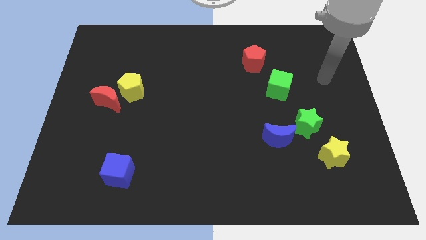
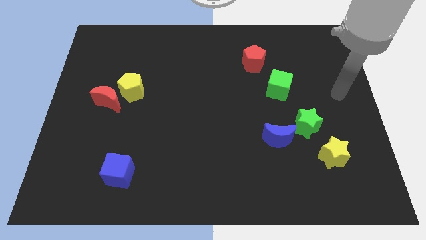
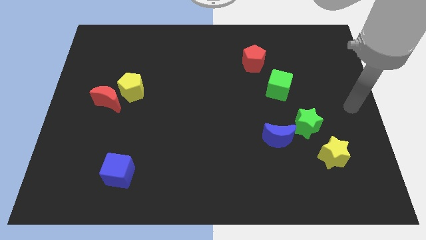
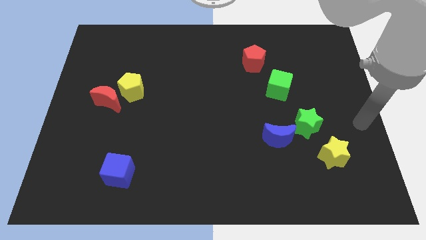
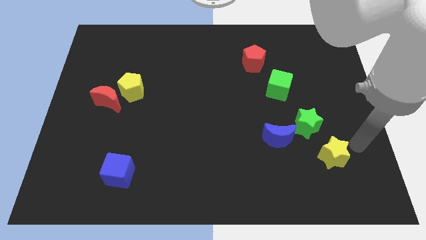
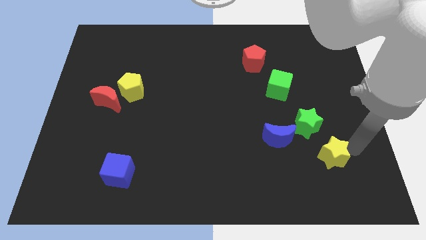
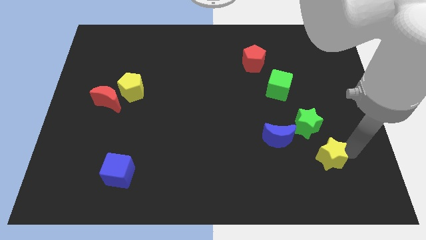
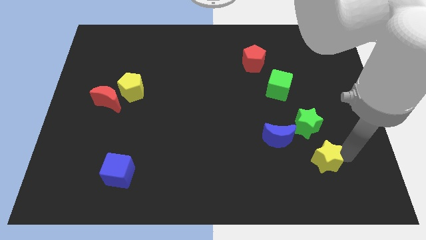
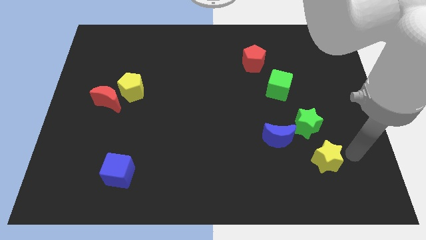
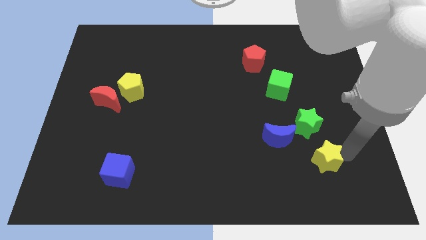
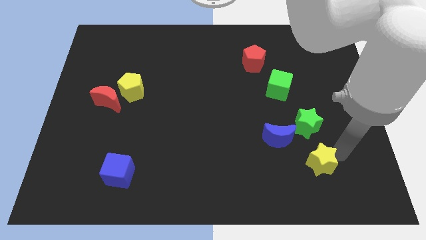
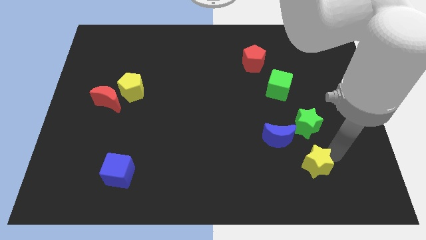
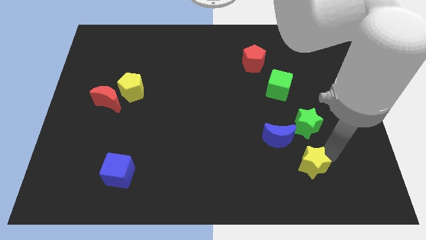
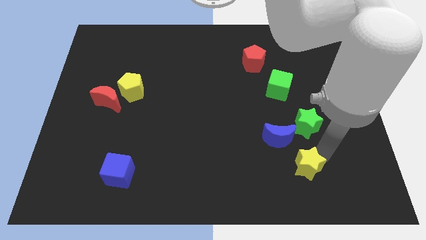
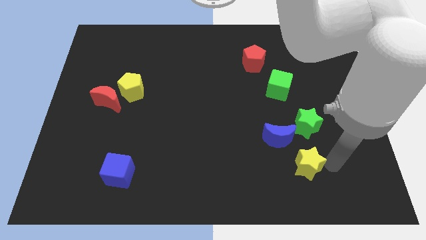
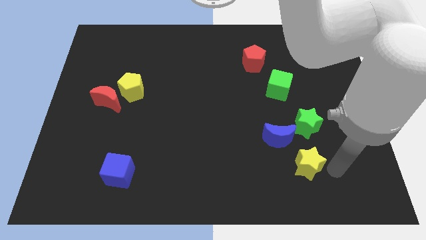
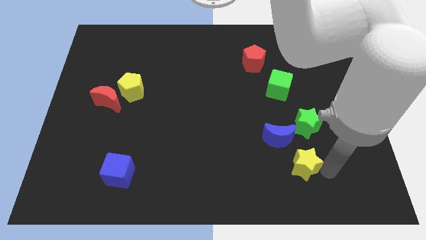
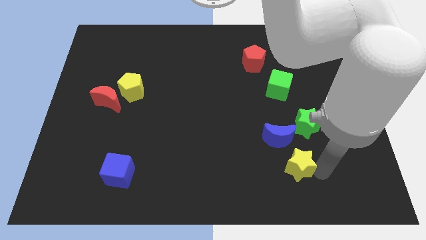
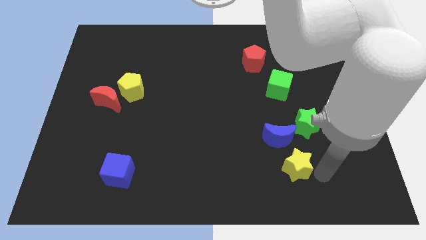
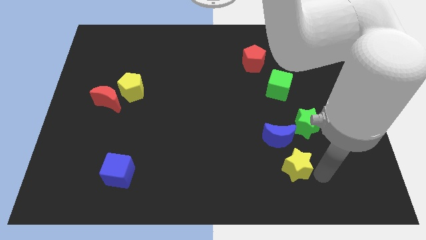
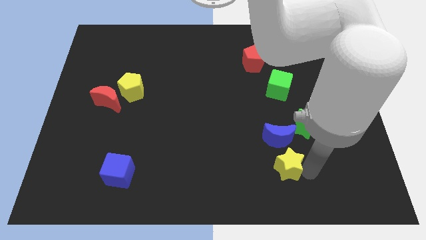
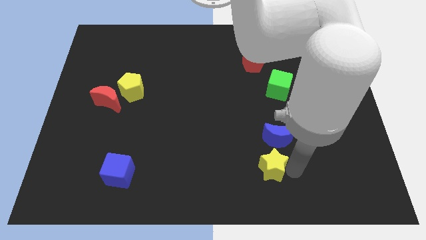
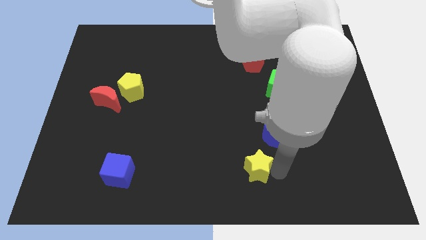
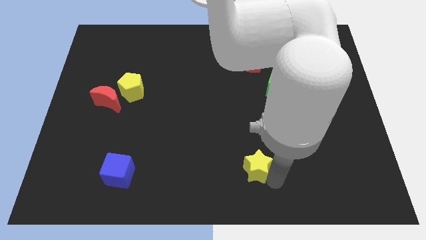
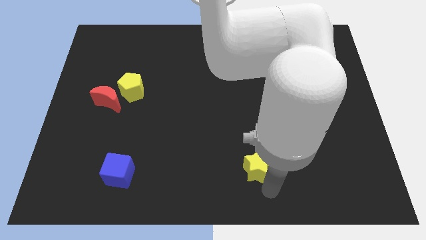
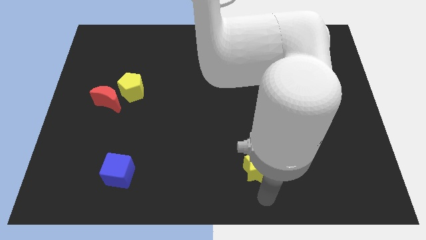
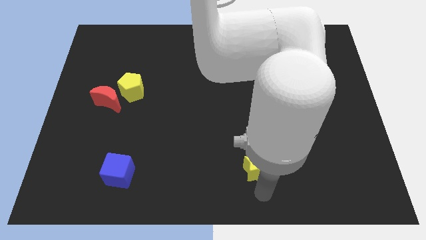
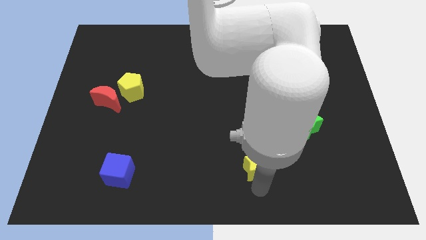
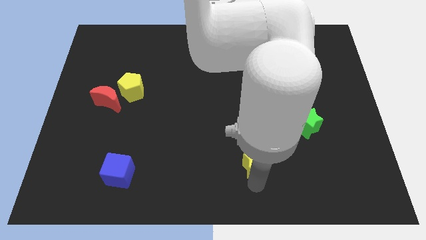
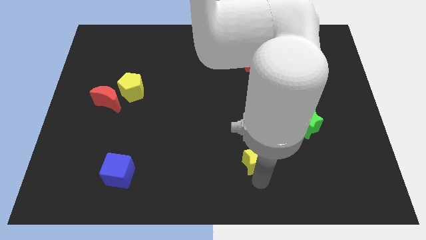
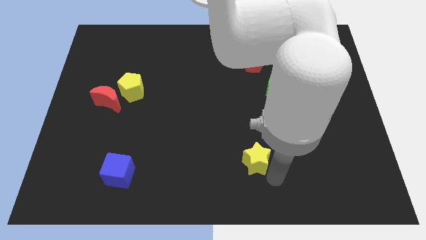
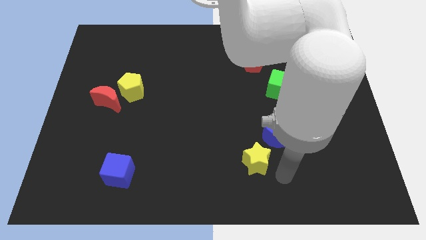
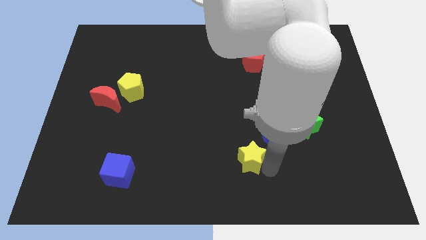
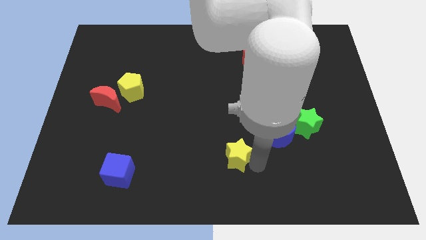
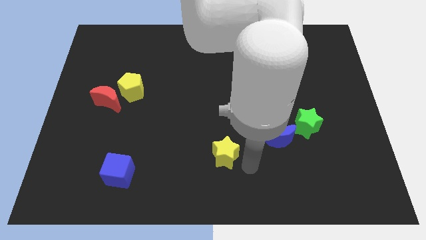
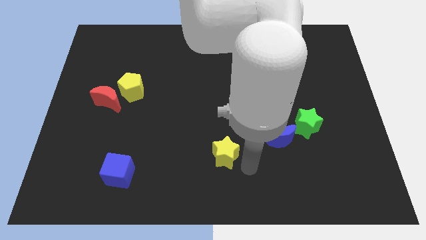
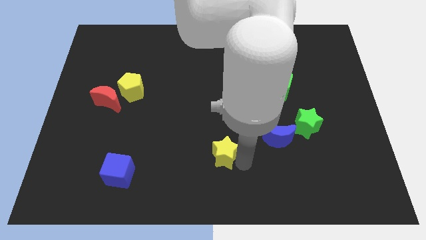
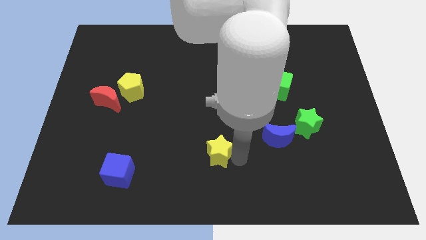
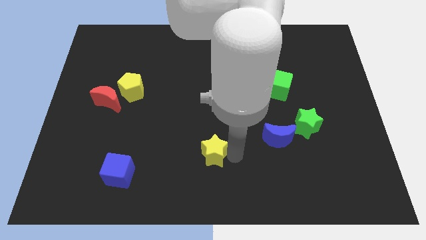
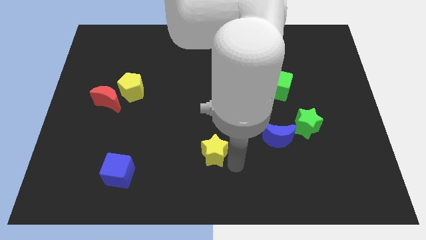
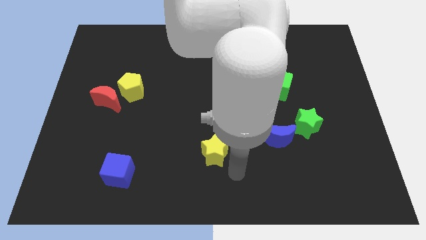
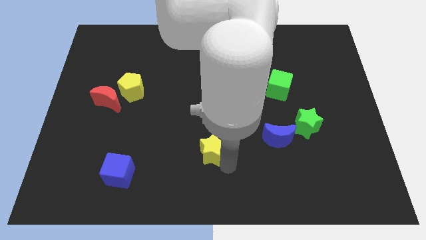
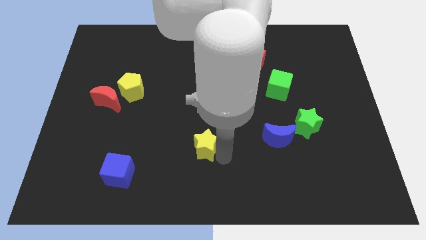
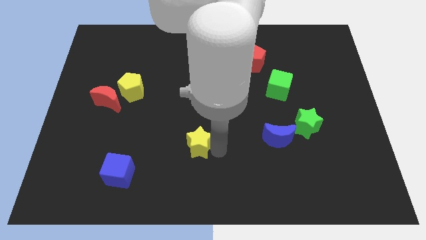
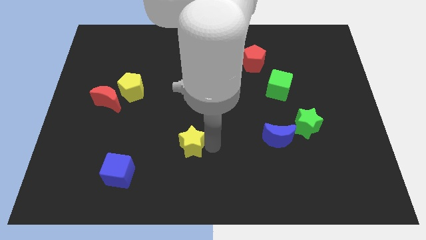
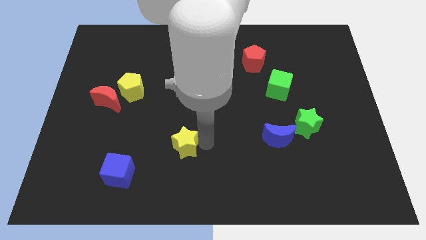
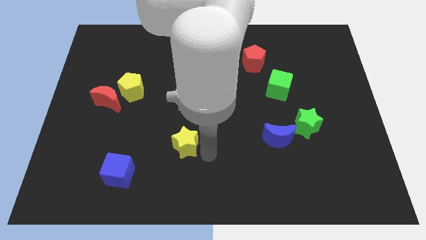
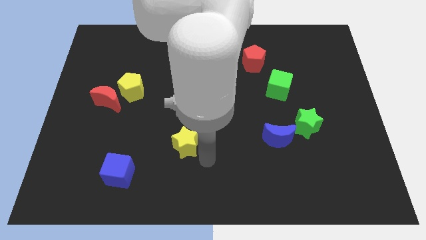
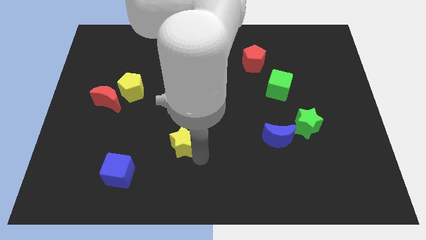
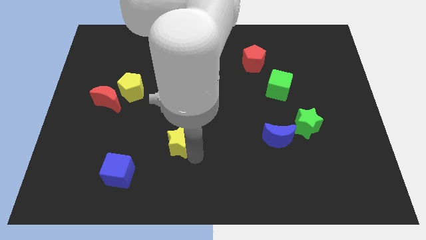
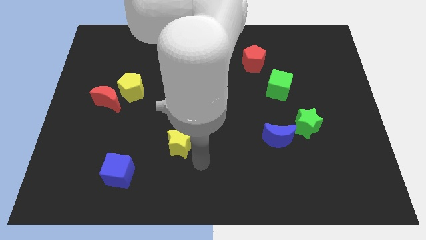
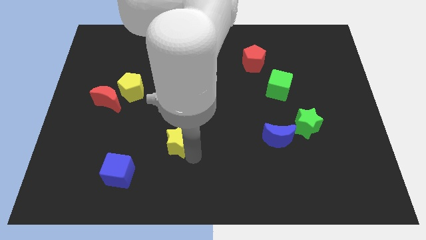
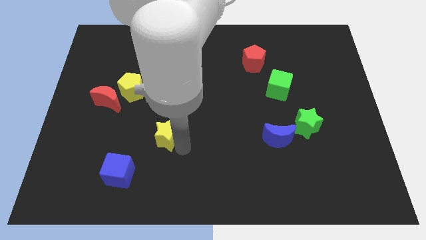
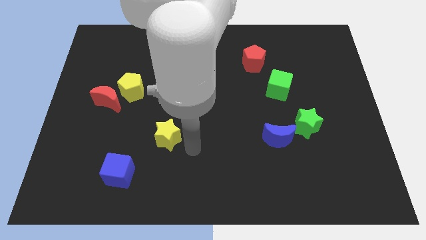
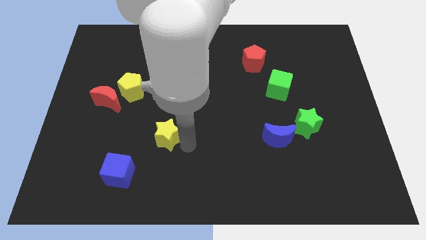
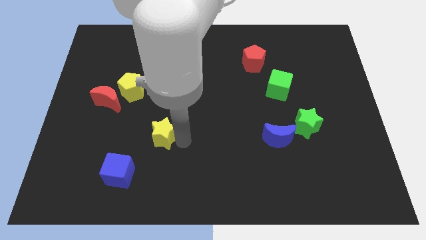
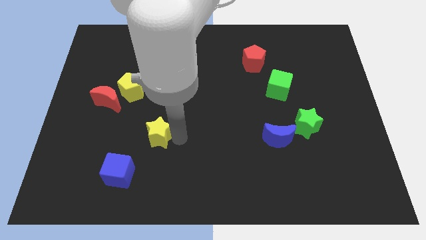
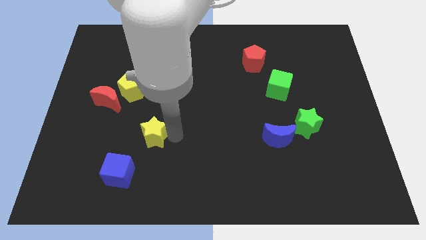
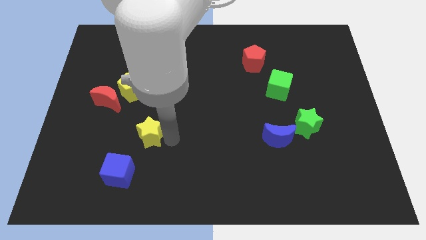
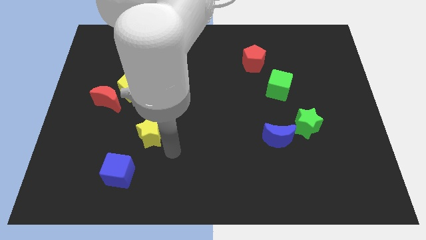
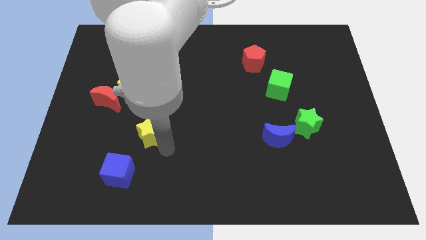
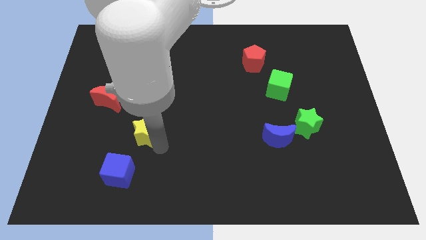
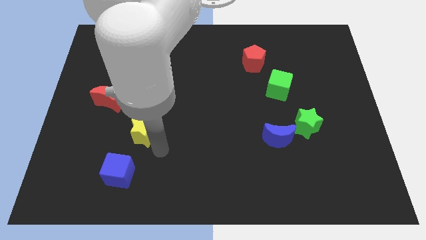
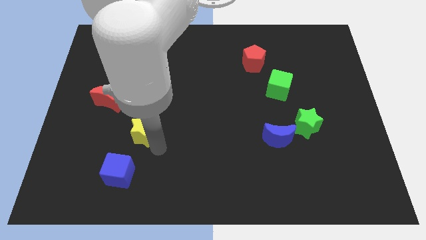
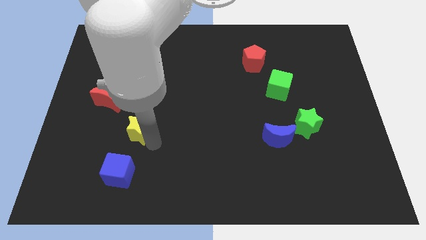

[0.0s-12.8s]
put the yellow star to the bottom right side of the red moon
